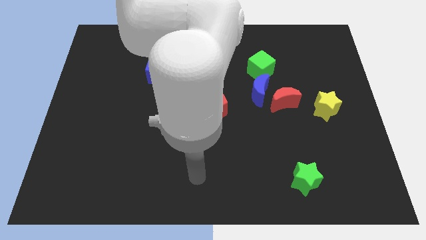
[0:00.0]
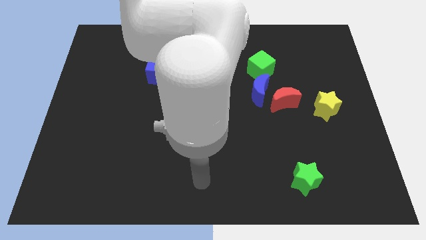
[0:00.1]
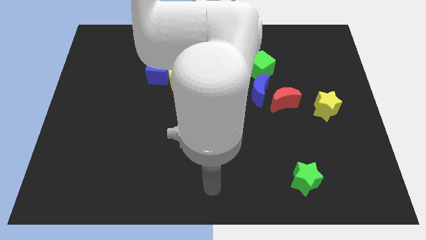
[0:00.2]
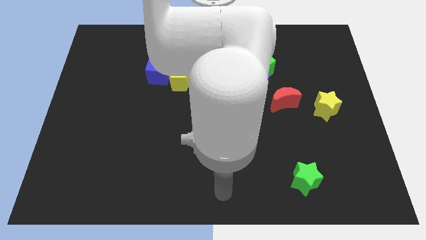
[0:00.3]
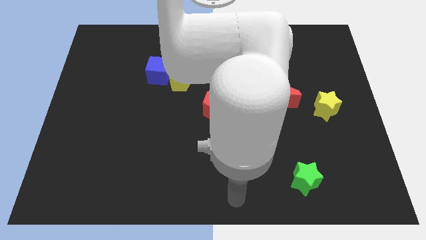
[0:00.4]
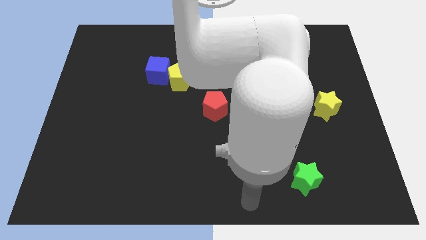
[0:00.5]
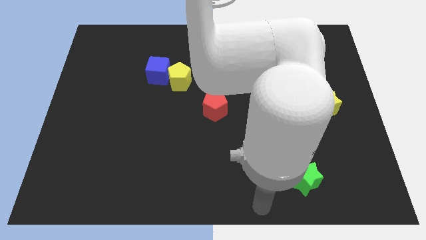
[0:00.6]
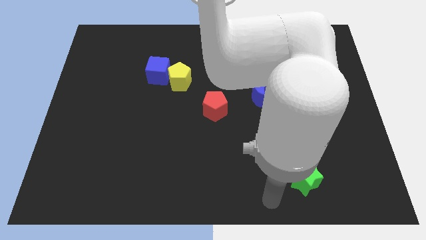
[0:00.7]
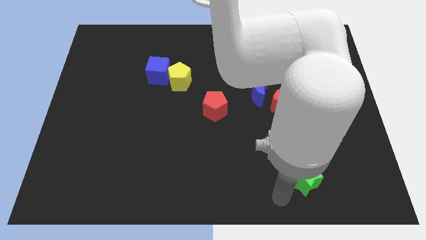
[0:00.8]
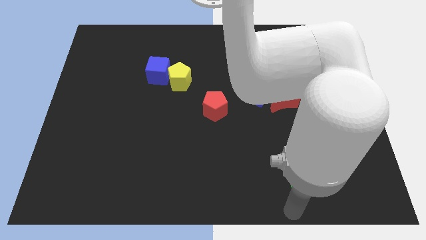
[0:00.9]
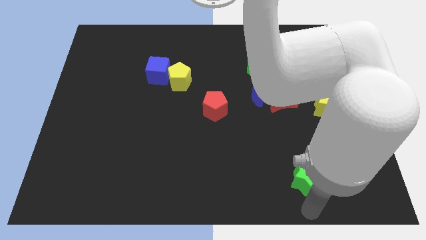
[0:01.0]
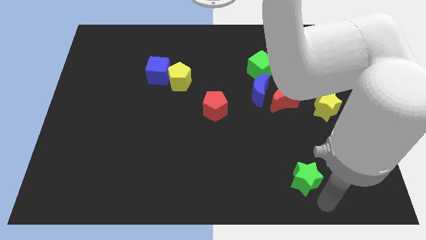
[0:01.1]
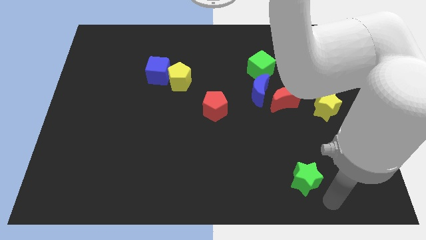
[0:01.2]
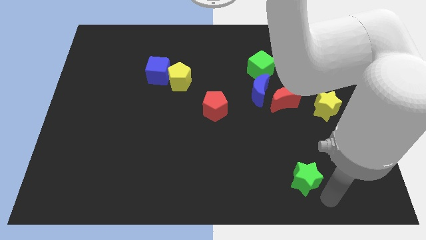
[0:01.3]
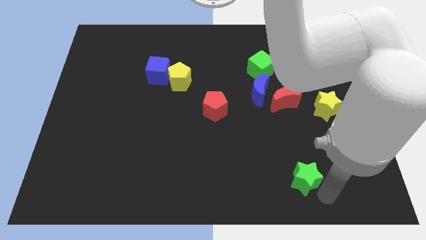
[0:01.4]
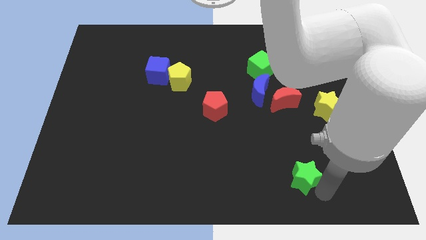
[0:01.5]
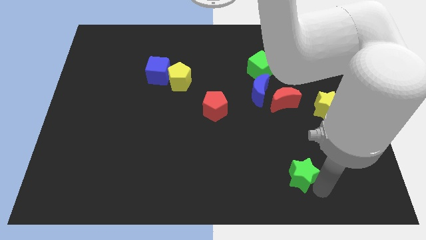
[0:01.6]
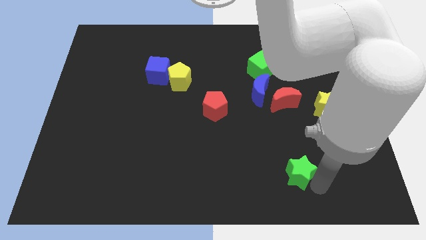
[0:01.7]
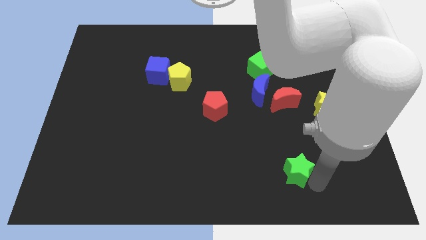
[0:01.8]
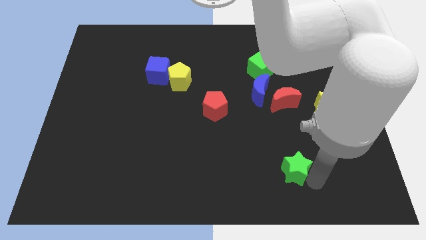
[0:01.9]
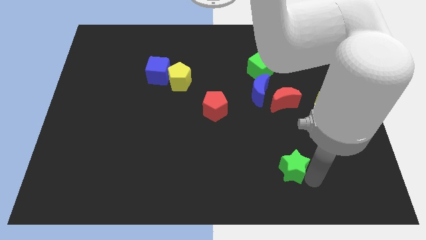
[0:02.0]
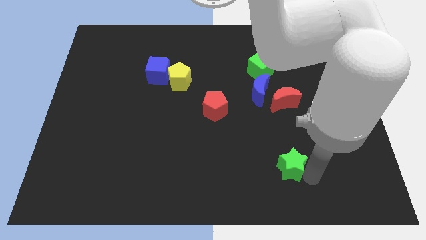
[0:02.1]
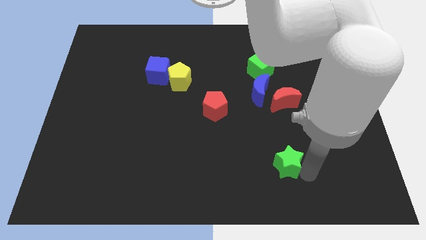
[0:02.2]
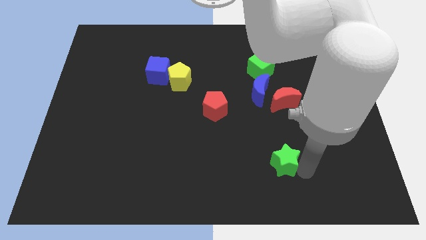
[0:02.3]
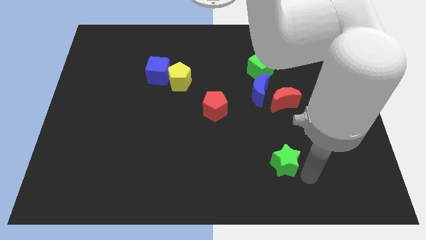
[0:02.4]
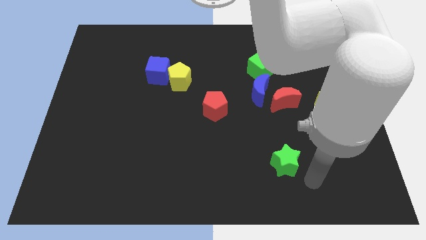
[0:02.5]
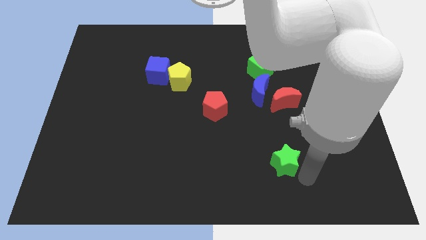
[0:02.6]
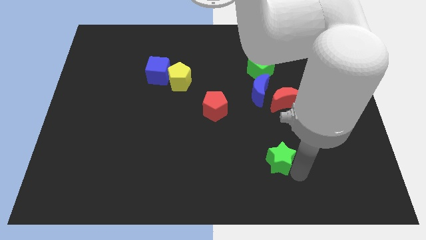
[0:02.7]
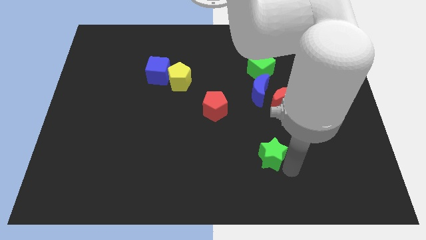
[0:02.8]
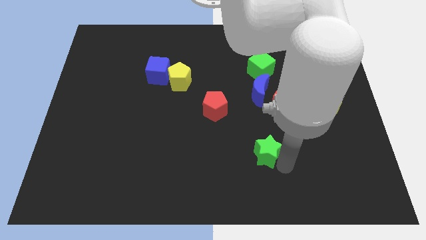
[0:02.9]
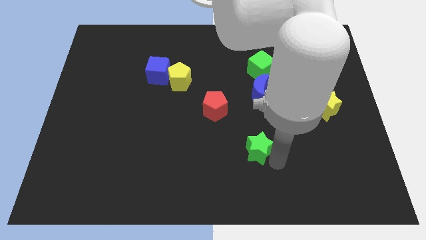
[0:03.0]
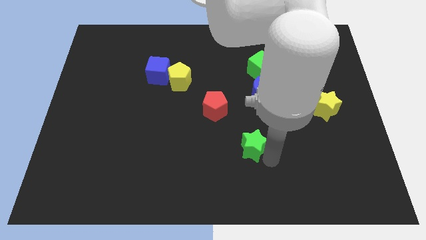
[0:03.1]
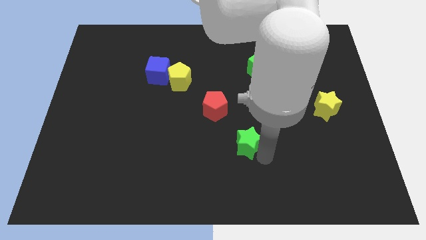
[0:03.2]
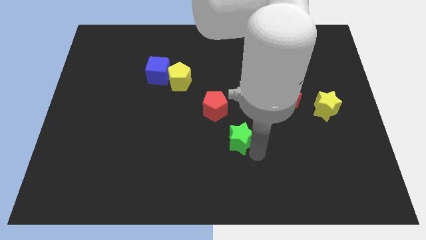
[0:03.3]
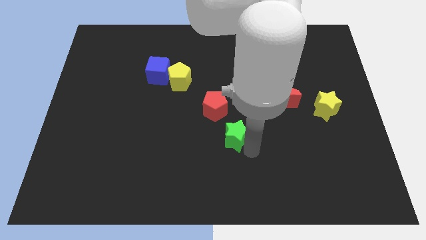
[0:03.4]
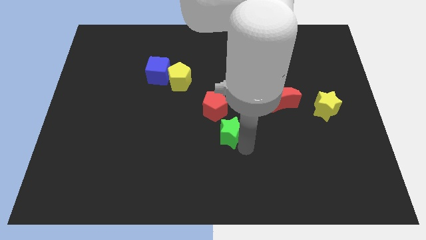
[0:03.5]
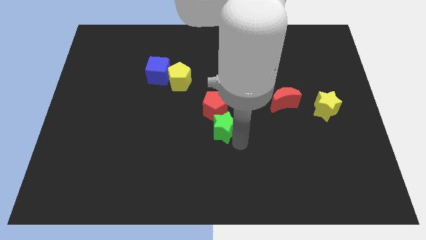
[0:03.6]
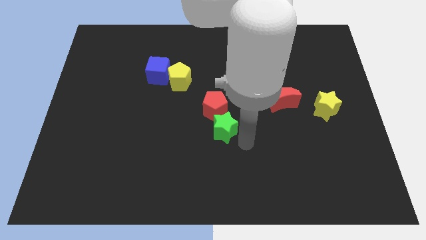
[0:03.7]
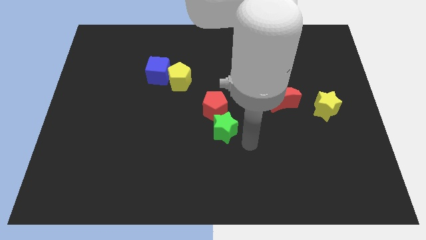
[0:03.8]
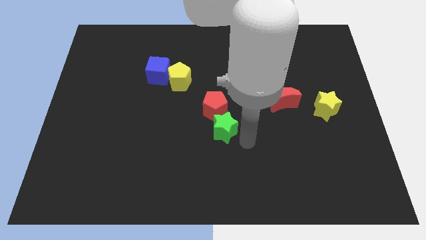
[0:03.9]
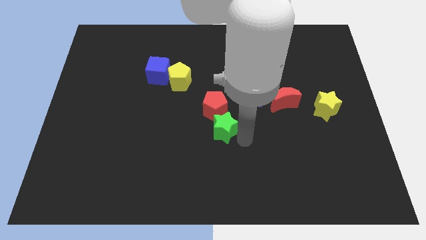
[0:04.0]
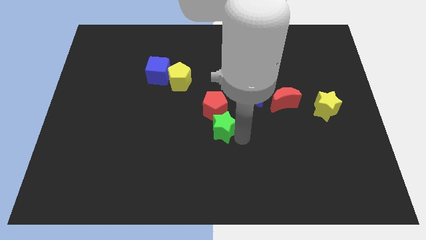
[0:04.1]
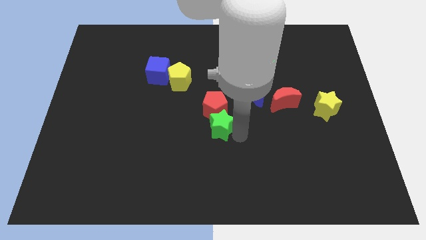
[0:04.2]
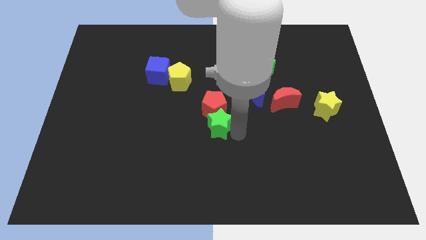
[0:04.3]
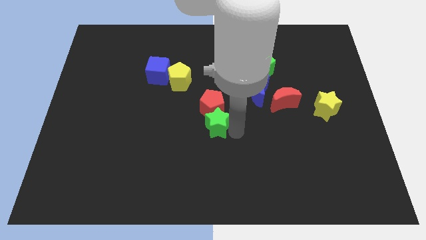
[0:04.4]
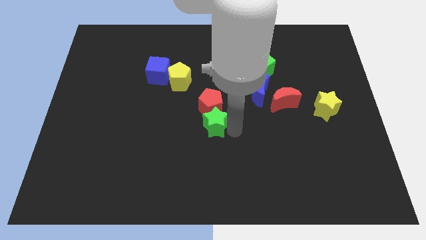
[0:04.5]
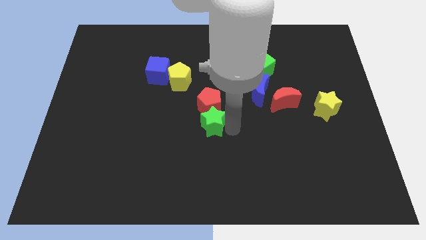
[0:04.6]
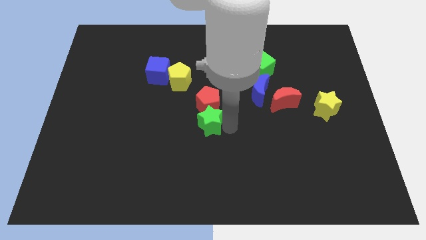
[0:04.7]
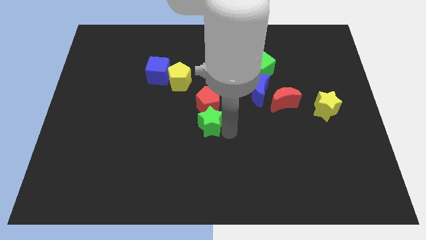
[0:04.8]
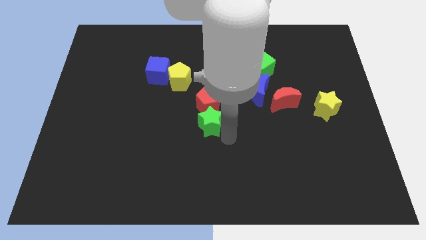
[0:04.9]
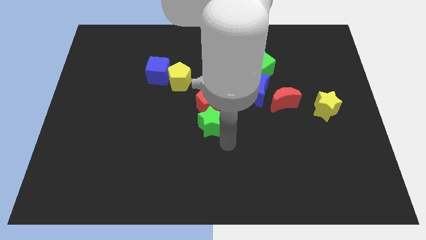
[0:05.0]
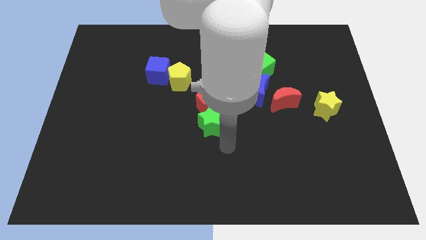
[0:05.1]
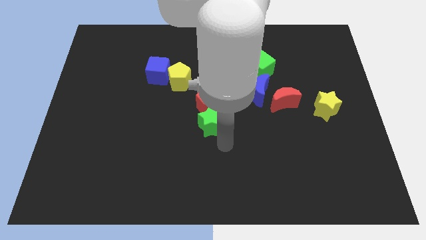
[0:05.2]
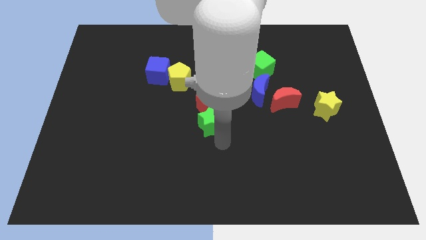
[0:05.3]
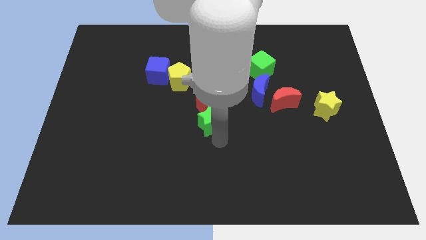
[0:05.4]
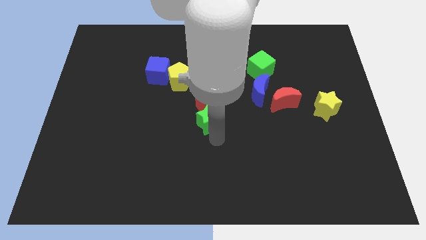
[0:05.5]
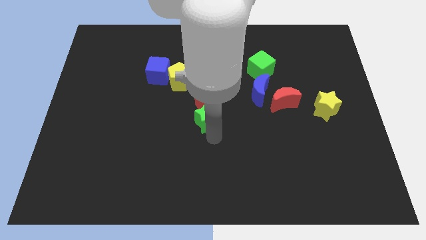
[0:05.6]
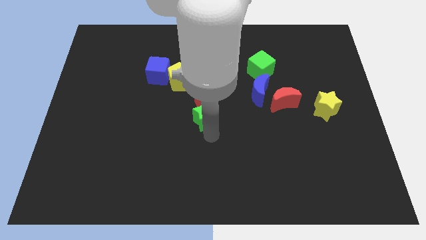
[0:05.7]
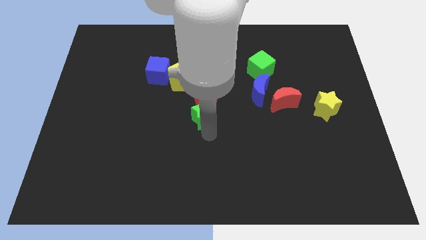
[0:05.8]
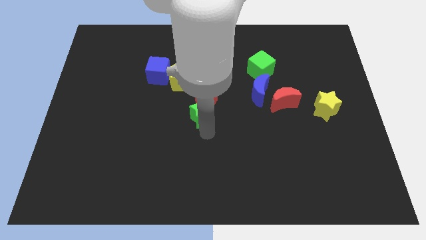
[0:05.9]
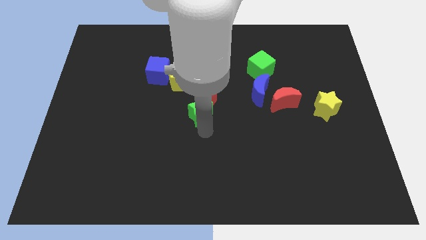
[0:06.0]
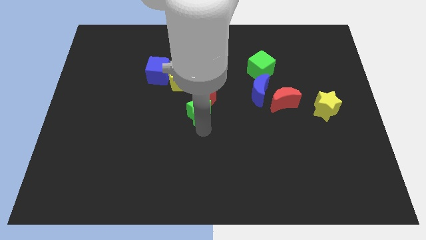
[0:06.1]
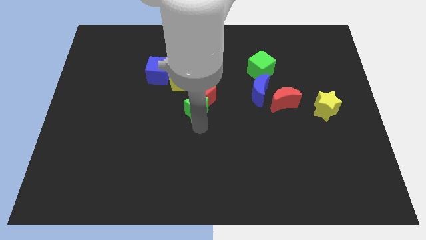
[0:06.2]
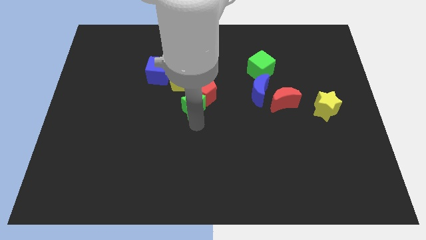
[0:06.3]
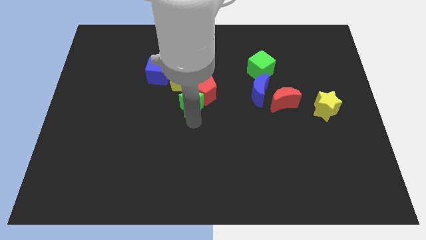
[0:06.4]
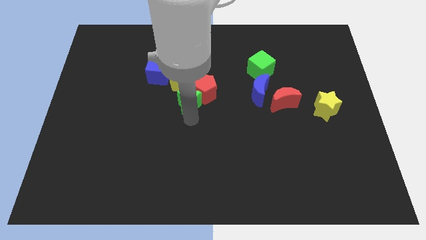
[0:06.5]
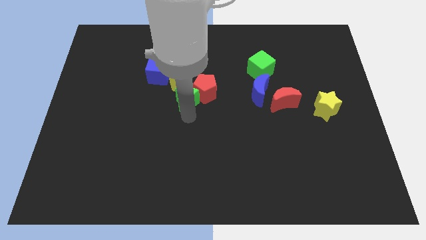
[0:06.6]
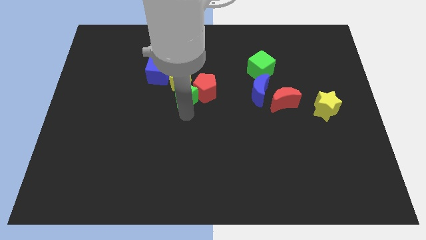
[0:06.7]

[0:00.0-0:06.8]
put the green star towards the yellow pentagon
